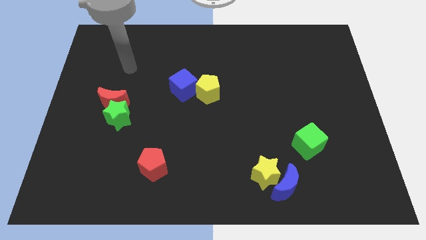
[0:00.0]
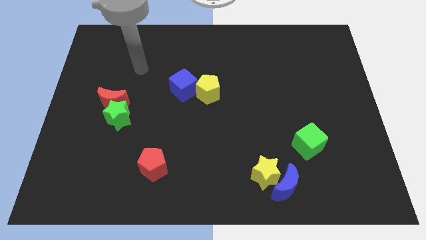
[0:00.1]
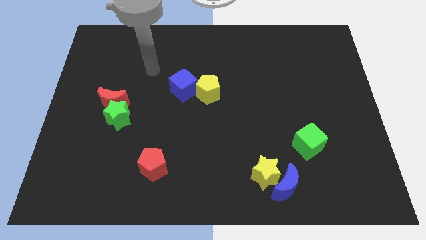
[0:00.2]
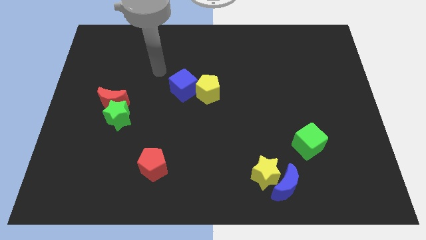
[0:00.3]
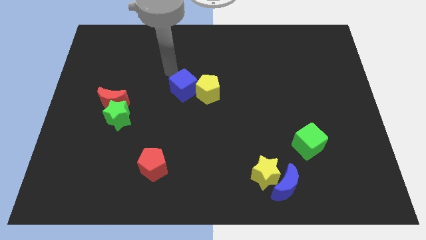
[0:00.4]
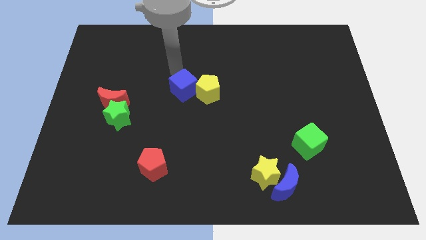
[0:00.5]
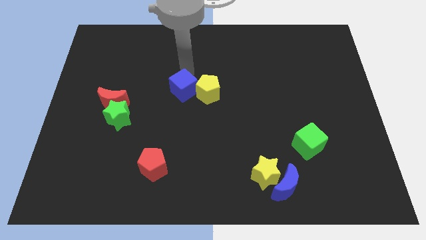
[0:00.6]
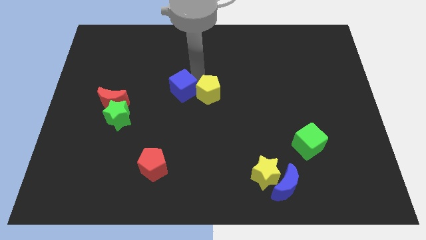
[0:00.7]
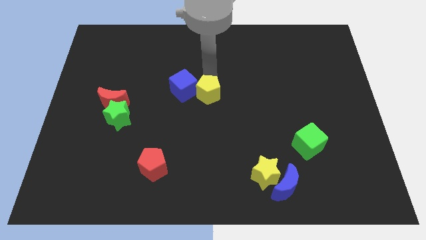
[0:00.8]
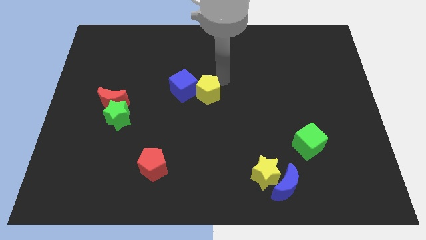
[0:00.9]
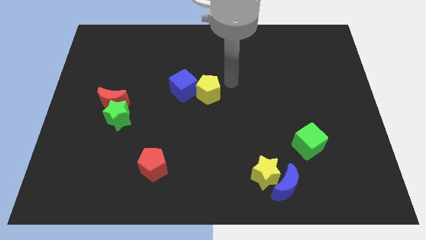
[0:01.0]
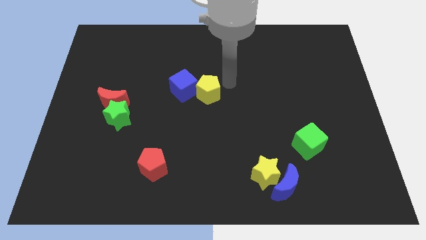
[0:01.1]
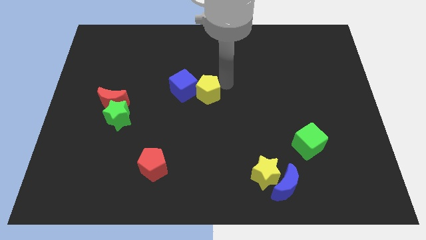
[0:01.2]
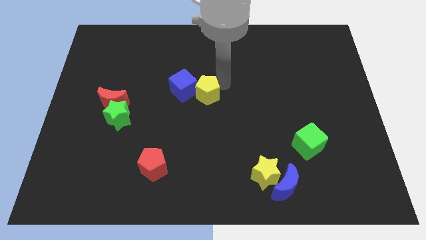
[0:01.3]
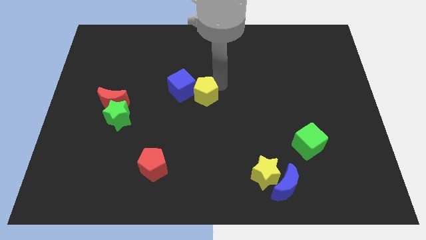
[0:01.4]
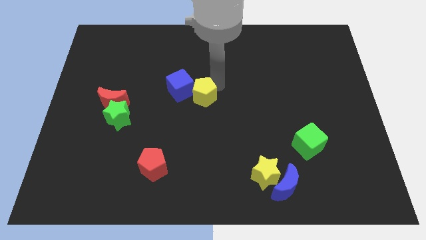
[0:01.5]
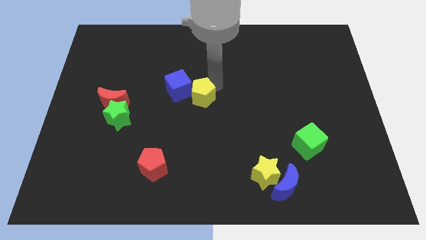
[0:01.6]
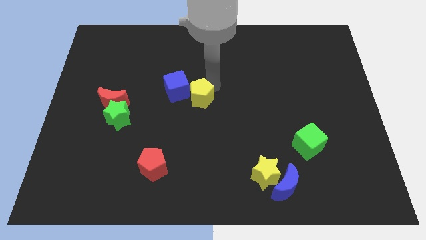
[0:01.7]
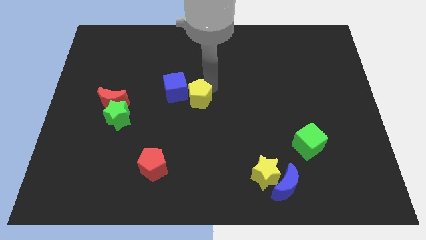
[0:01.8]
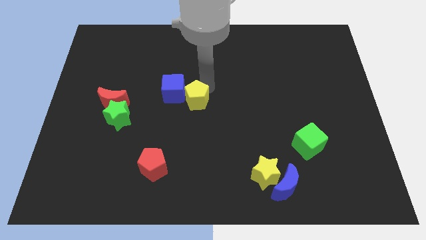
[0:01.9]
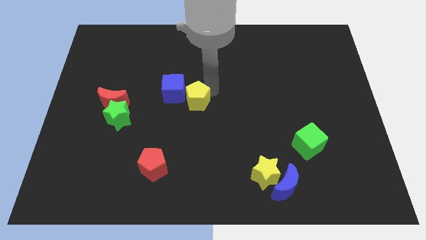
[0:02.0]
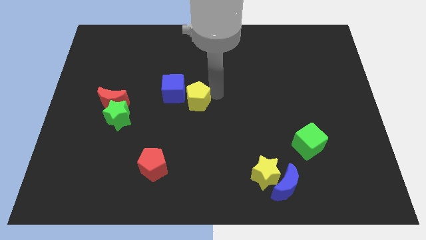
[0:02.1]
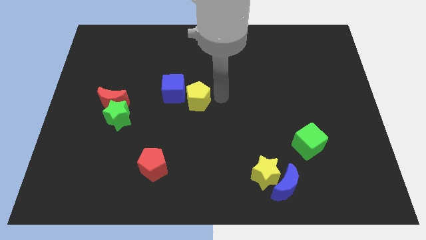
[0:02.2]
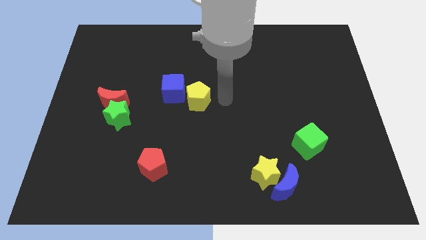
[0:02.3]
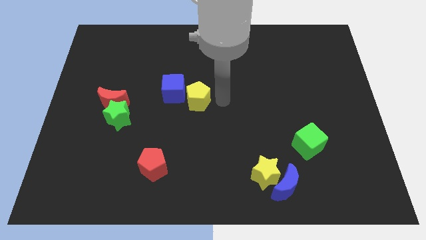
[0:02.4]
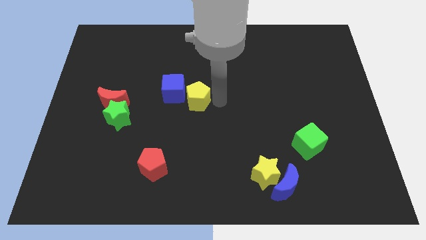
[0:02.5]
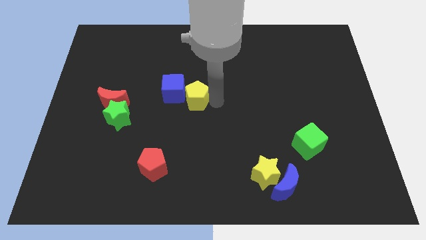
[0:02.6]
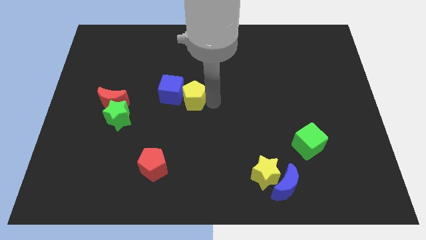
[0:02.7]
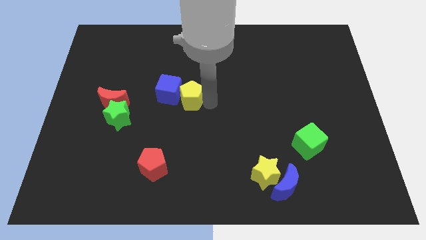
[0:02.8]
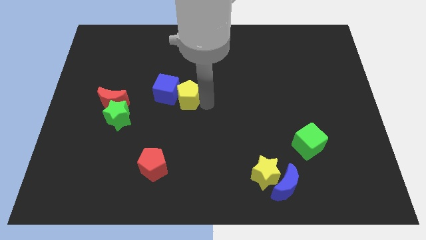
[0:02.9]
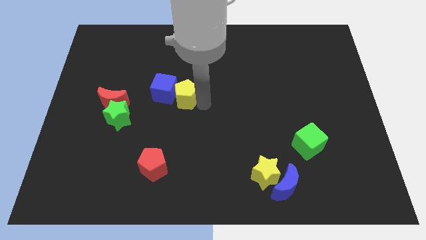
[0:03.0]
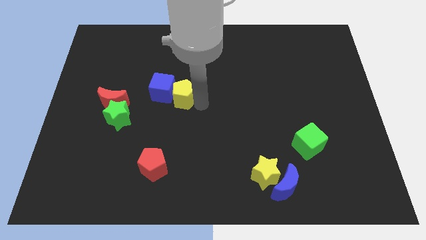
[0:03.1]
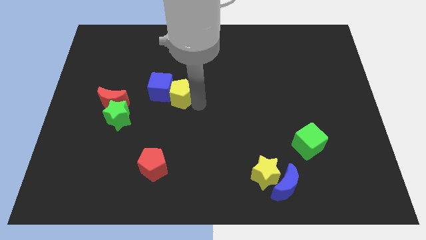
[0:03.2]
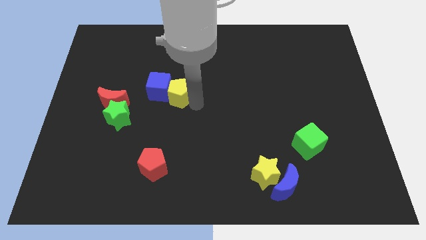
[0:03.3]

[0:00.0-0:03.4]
slightly slide the yellow pentagon to the left

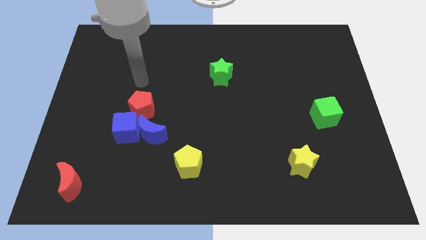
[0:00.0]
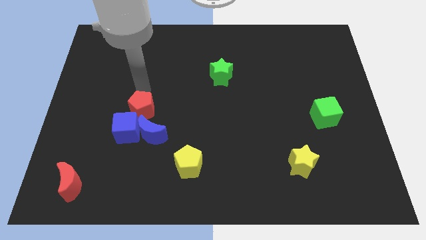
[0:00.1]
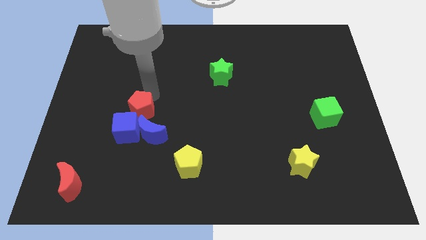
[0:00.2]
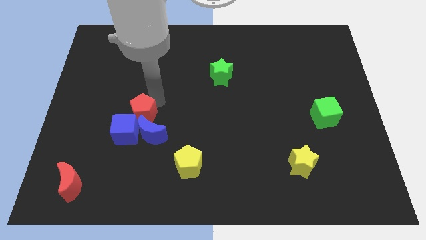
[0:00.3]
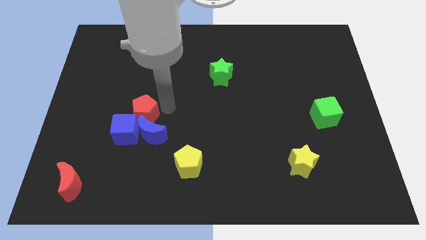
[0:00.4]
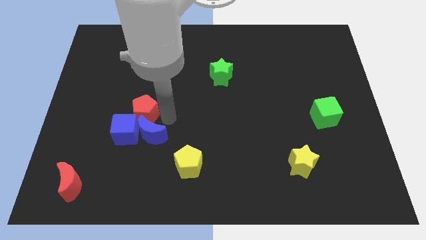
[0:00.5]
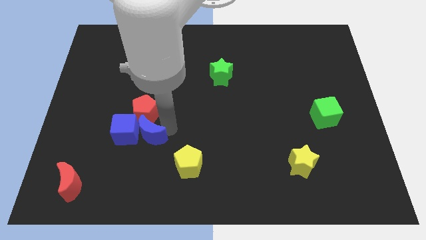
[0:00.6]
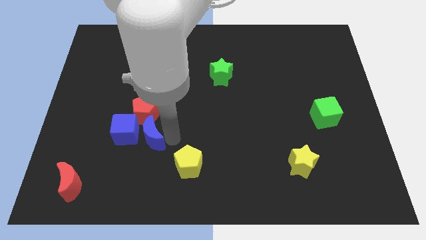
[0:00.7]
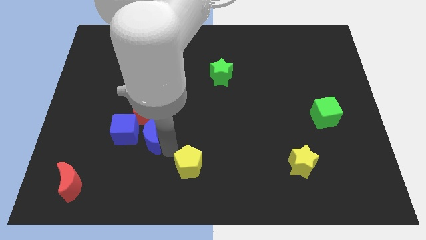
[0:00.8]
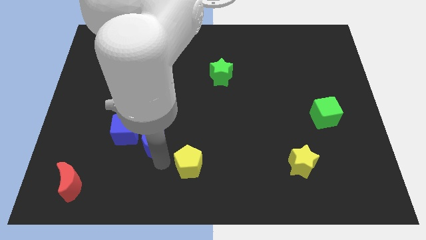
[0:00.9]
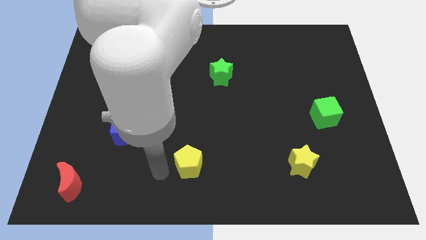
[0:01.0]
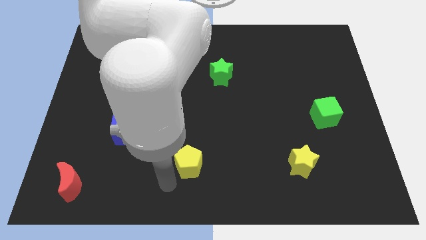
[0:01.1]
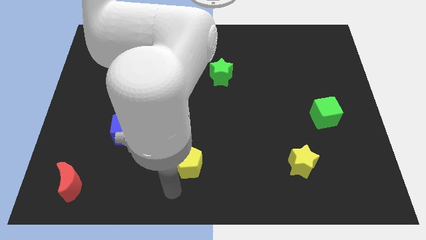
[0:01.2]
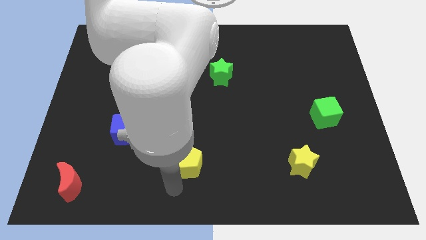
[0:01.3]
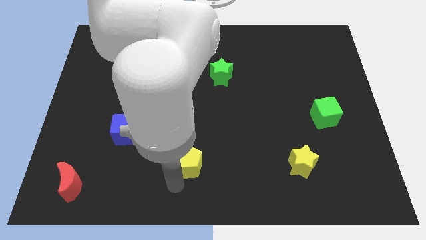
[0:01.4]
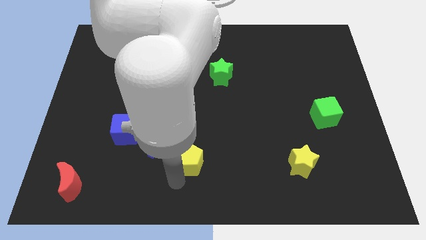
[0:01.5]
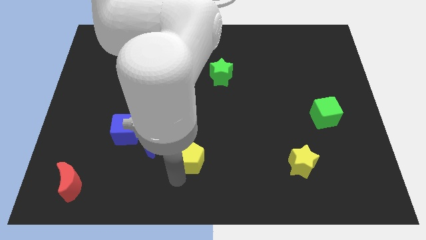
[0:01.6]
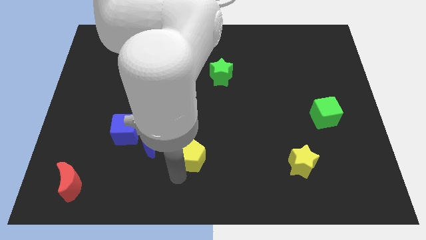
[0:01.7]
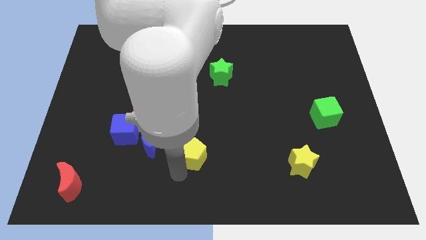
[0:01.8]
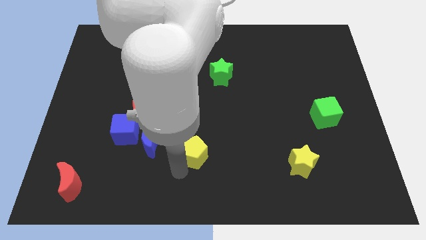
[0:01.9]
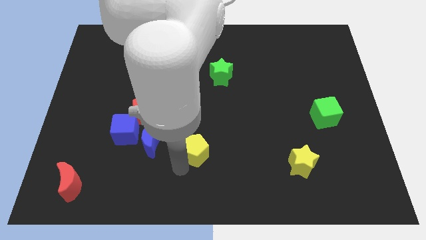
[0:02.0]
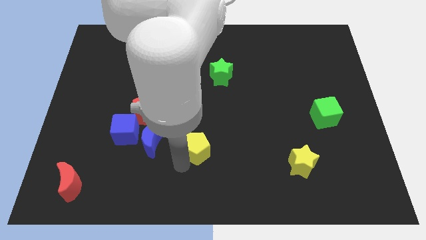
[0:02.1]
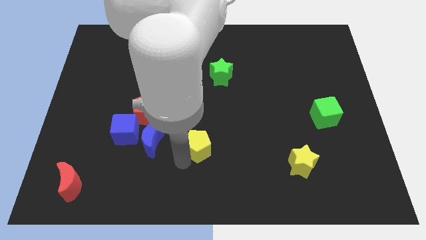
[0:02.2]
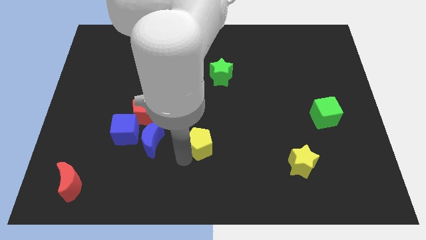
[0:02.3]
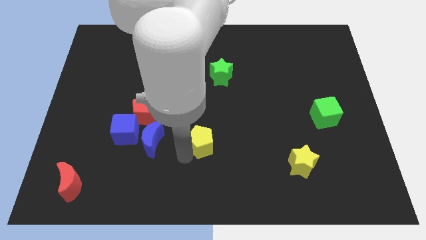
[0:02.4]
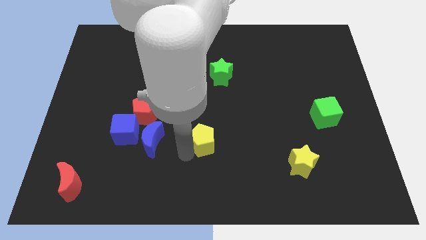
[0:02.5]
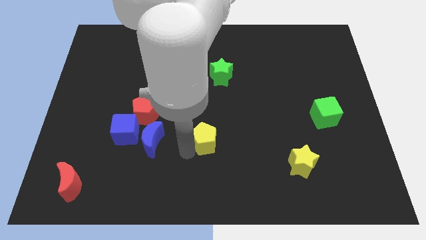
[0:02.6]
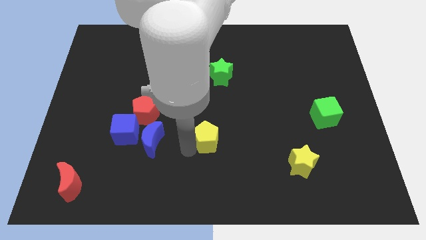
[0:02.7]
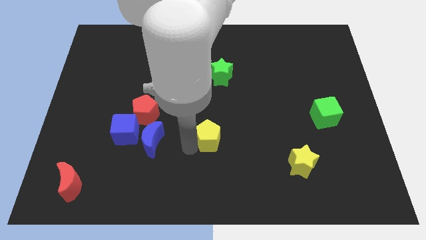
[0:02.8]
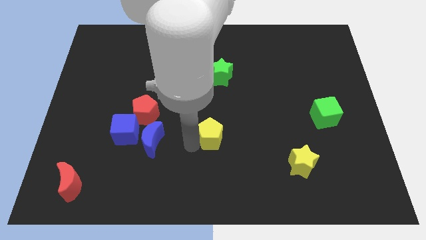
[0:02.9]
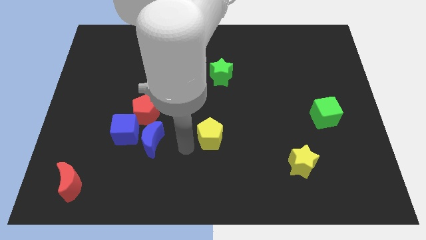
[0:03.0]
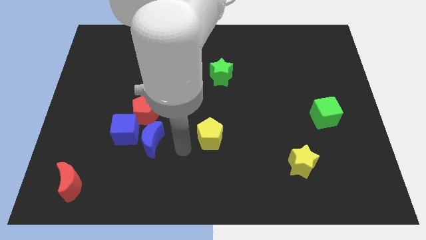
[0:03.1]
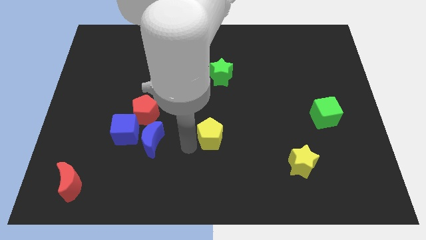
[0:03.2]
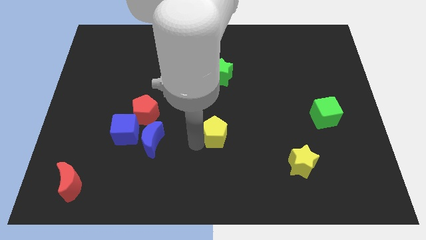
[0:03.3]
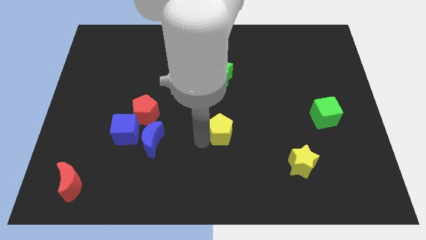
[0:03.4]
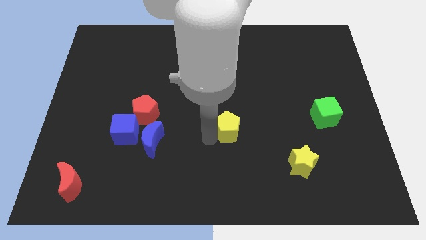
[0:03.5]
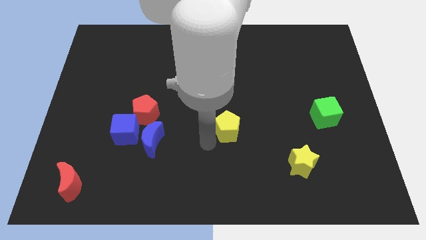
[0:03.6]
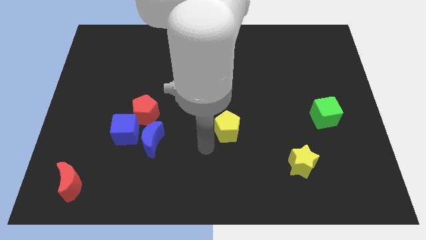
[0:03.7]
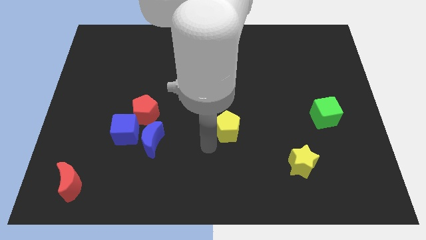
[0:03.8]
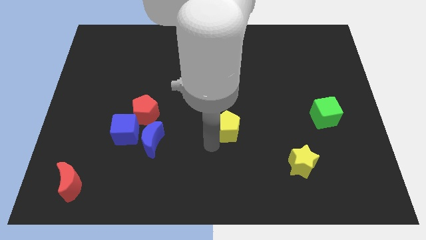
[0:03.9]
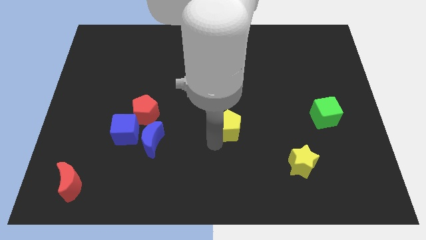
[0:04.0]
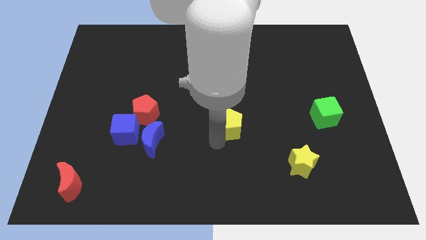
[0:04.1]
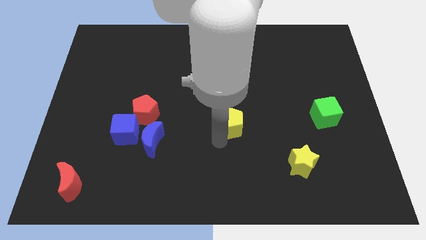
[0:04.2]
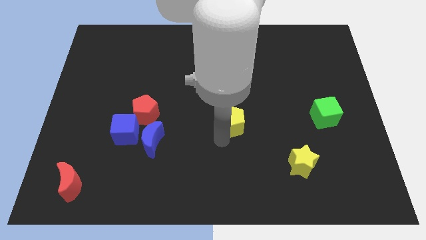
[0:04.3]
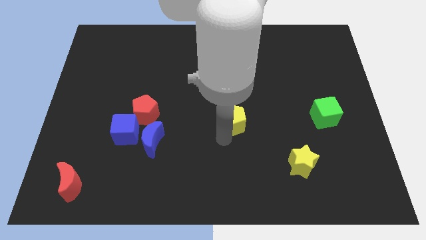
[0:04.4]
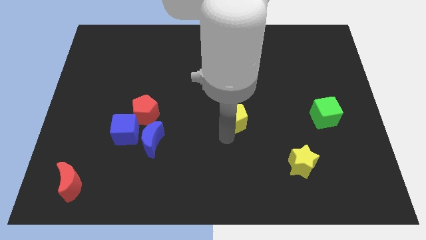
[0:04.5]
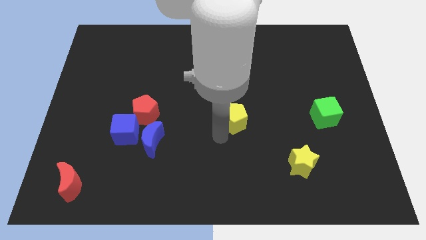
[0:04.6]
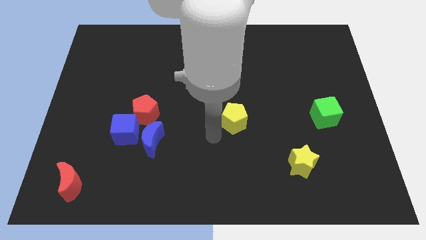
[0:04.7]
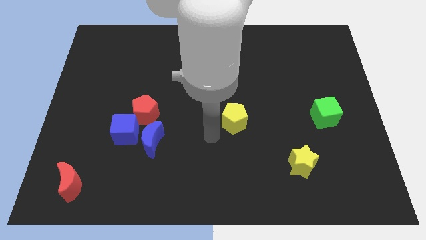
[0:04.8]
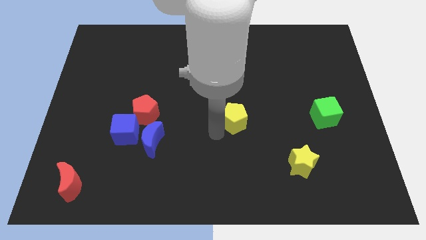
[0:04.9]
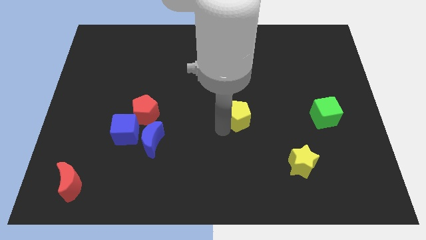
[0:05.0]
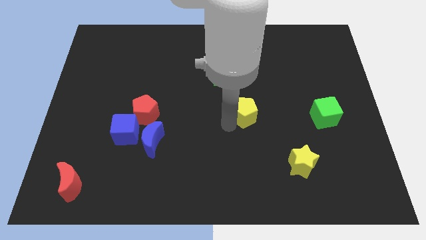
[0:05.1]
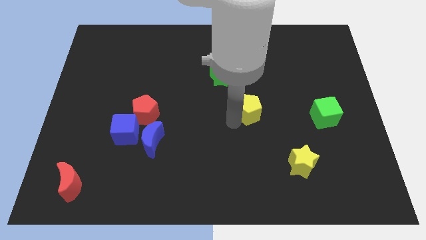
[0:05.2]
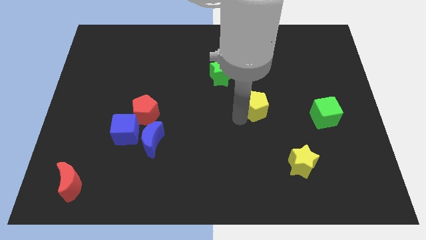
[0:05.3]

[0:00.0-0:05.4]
move the yellow pentagon upwards and right diagonally
